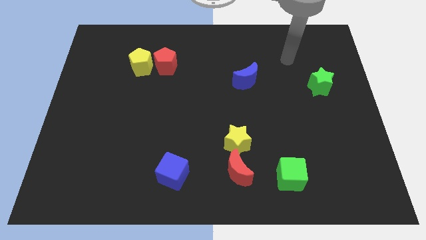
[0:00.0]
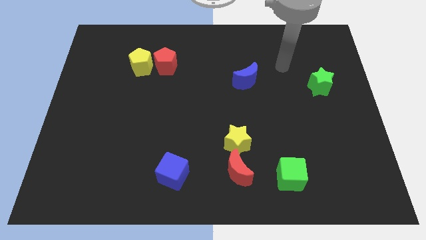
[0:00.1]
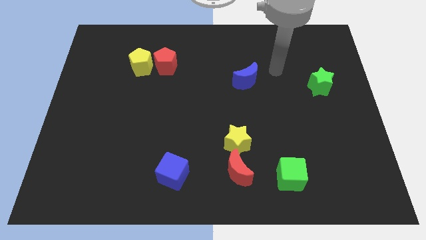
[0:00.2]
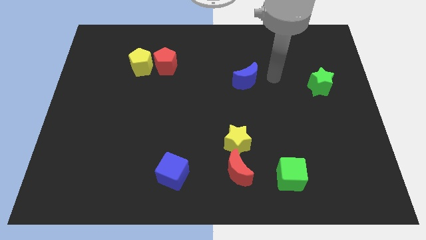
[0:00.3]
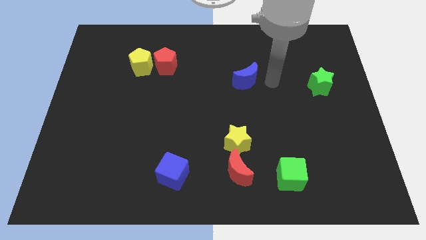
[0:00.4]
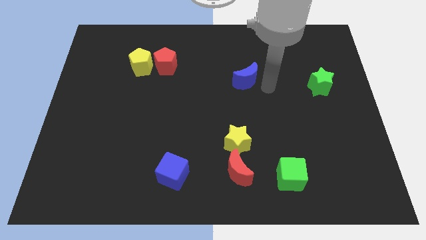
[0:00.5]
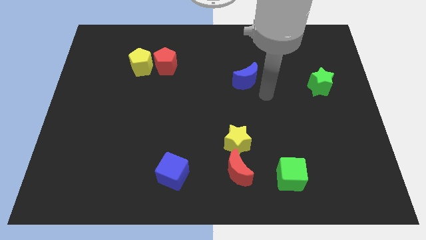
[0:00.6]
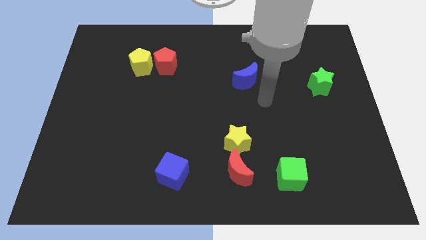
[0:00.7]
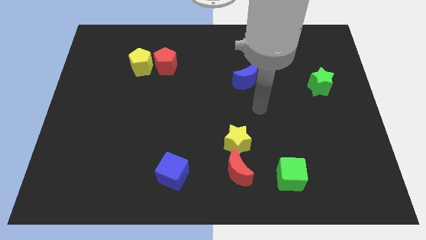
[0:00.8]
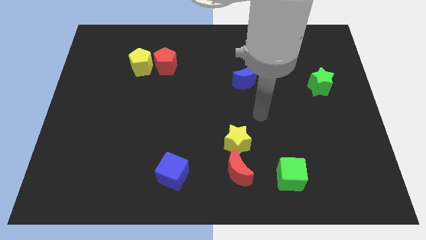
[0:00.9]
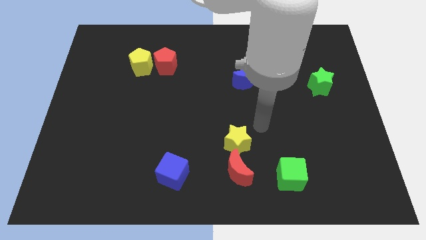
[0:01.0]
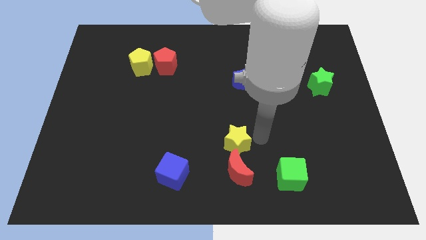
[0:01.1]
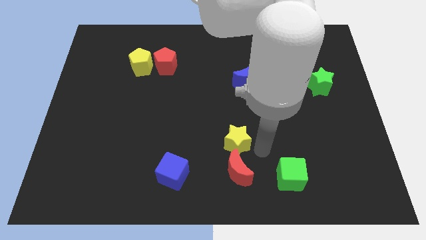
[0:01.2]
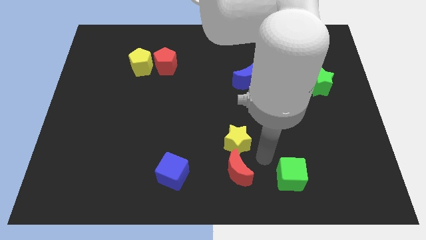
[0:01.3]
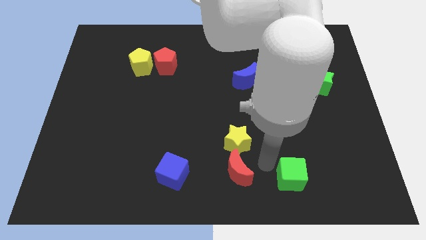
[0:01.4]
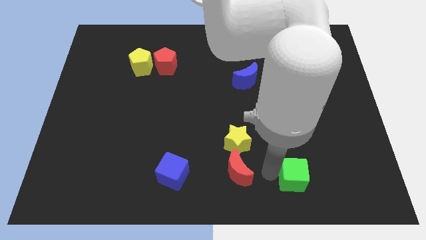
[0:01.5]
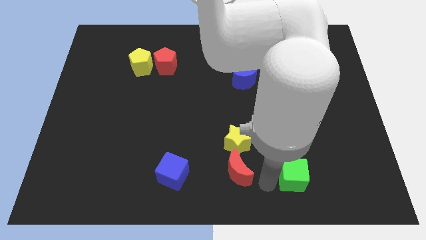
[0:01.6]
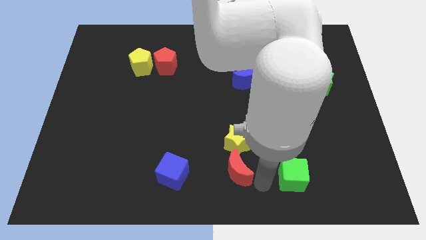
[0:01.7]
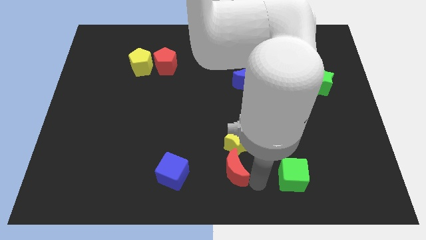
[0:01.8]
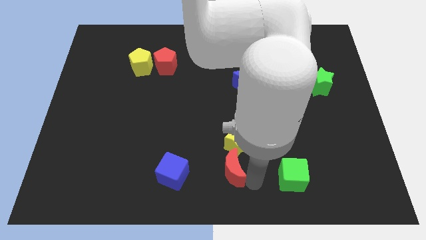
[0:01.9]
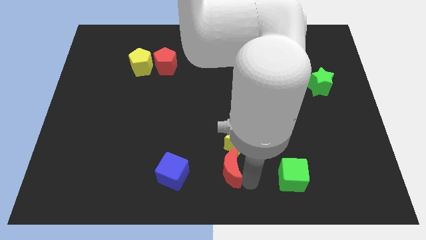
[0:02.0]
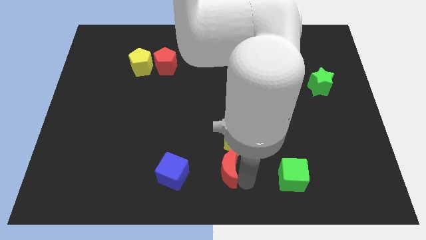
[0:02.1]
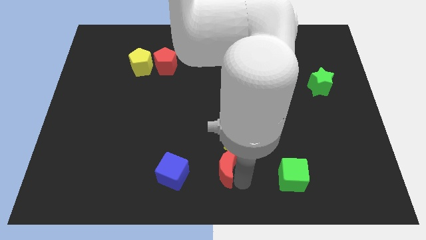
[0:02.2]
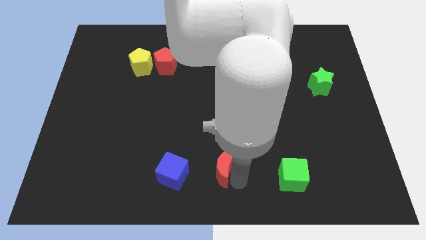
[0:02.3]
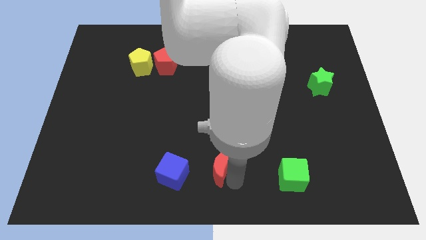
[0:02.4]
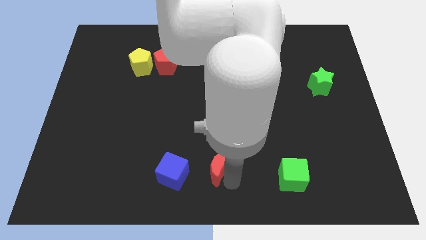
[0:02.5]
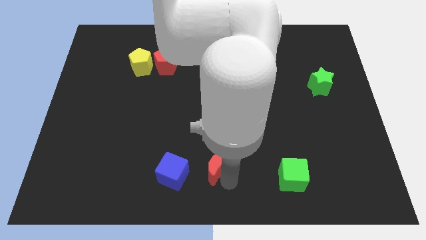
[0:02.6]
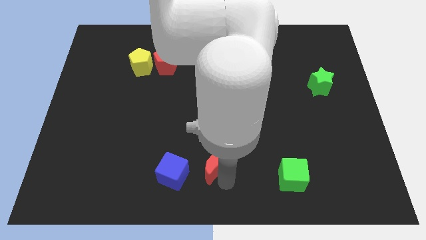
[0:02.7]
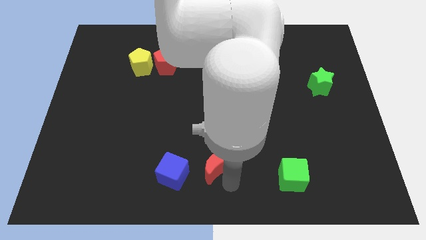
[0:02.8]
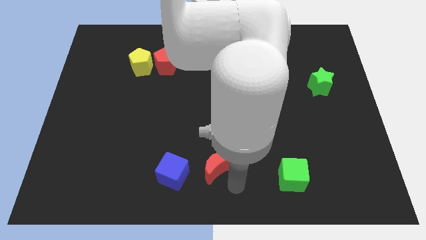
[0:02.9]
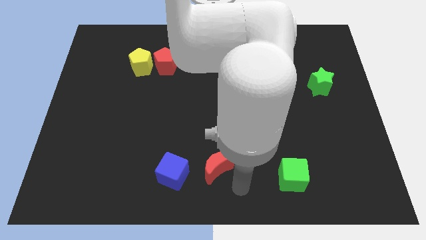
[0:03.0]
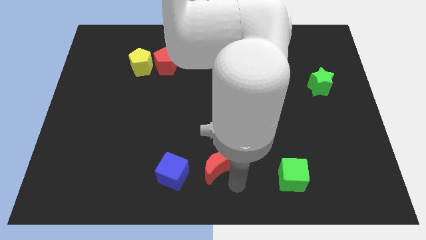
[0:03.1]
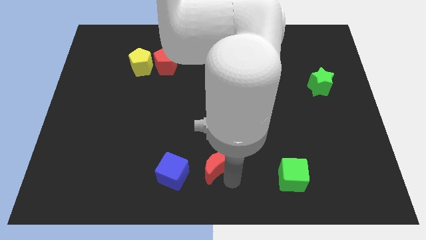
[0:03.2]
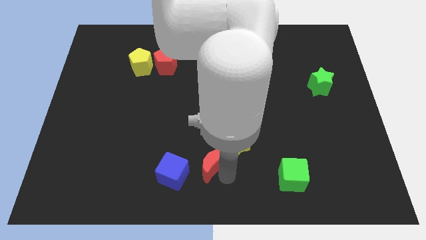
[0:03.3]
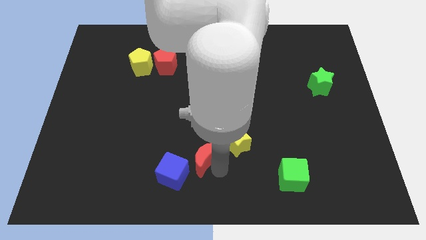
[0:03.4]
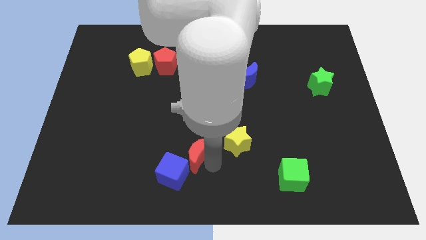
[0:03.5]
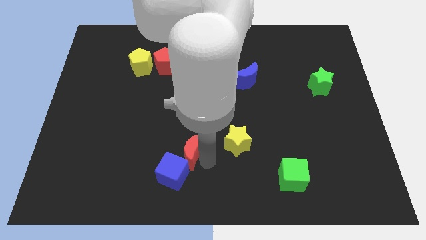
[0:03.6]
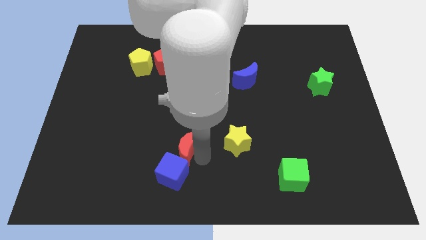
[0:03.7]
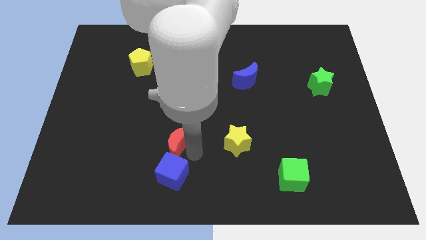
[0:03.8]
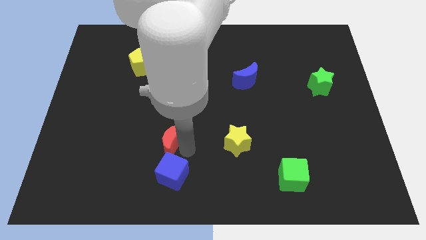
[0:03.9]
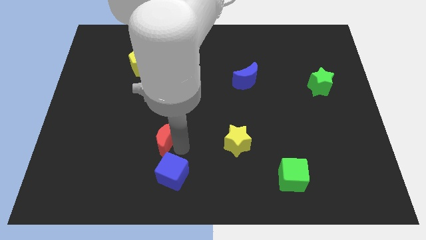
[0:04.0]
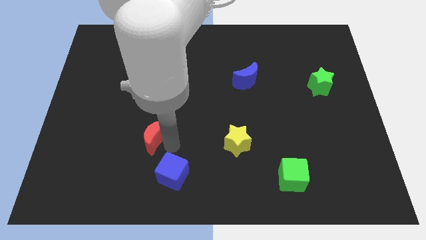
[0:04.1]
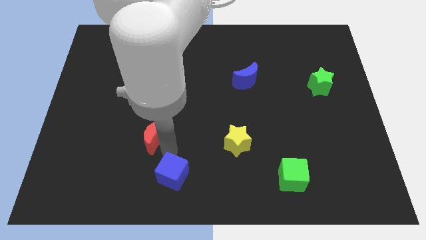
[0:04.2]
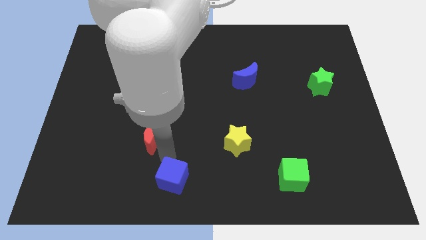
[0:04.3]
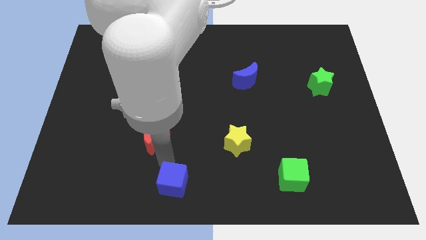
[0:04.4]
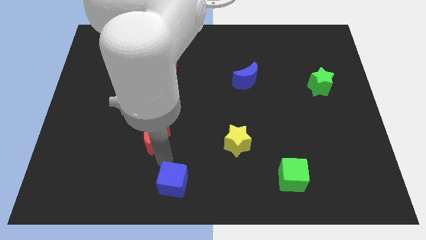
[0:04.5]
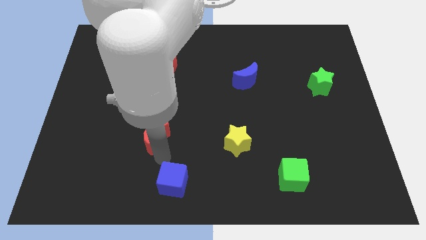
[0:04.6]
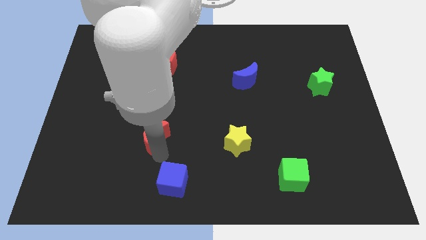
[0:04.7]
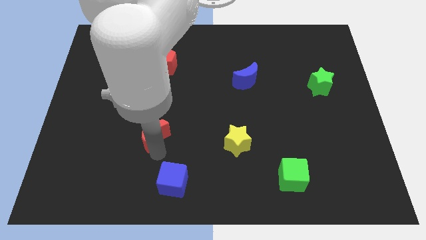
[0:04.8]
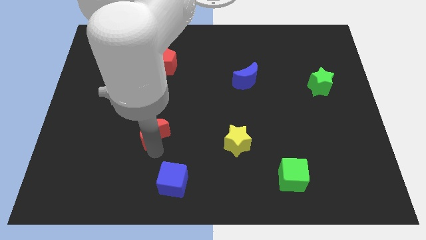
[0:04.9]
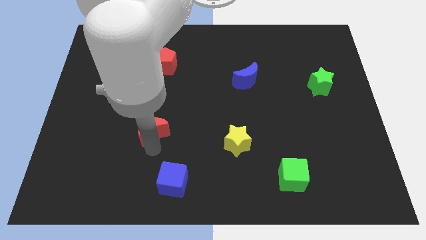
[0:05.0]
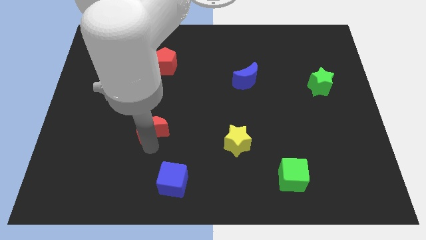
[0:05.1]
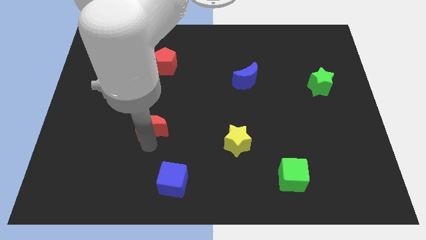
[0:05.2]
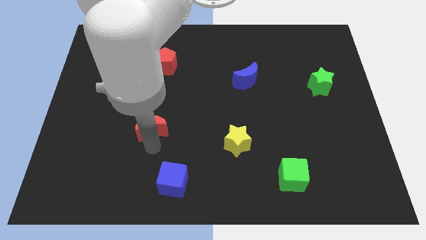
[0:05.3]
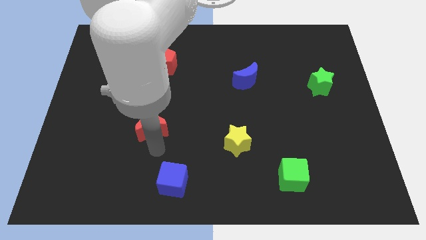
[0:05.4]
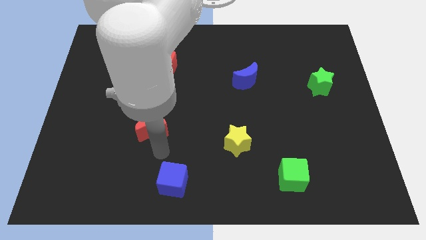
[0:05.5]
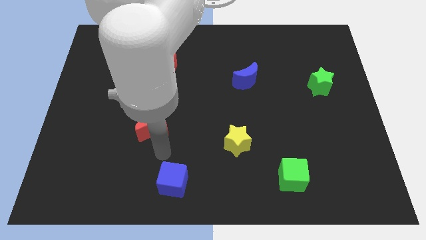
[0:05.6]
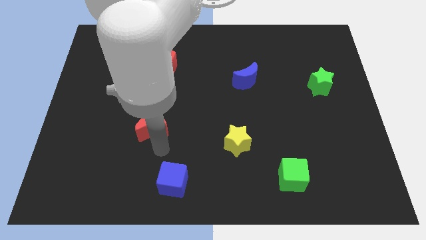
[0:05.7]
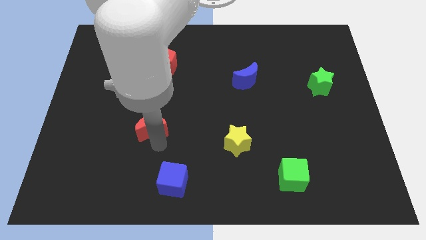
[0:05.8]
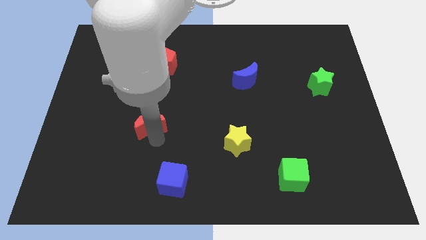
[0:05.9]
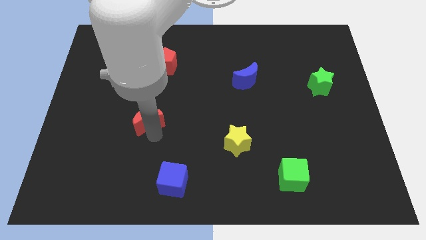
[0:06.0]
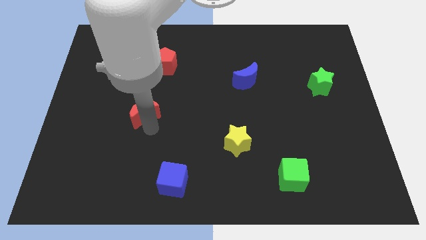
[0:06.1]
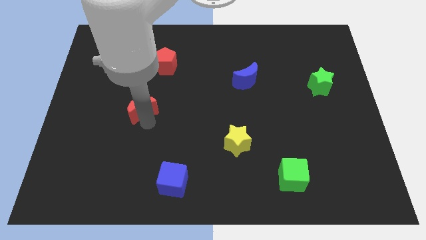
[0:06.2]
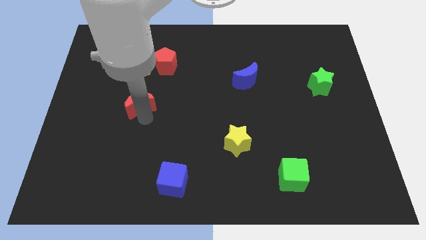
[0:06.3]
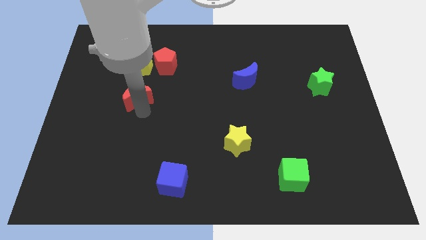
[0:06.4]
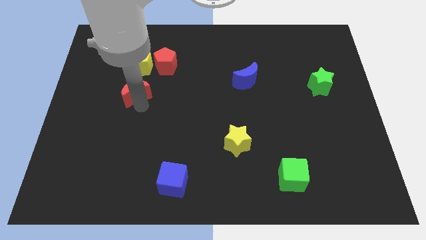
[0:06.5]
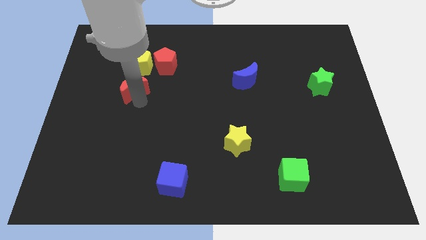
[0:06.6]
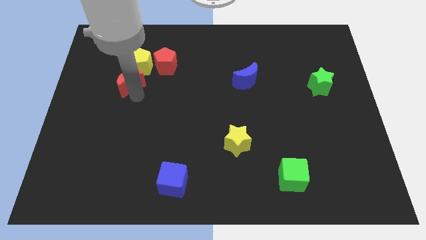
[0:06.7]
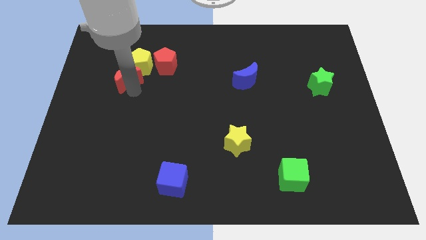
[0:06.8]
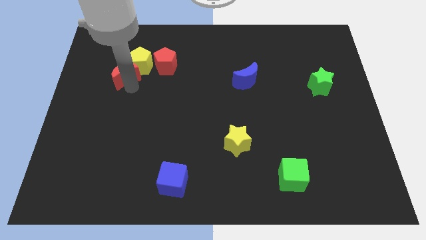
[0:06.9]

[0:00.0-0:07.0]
push the red moon to the left of the red pentagon

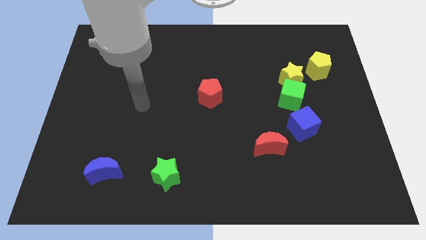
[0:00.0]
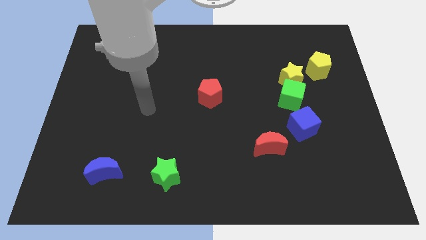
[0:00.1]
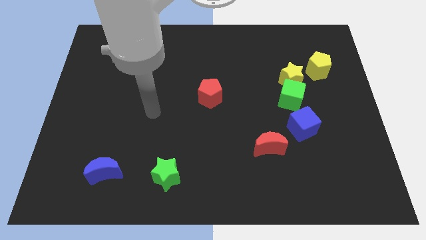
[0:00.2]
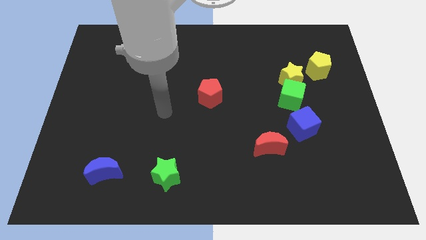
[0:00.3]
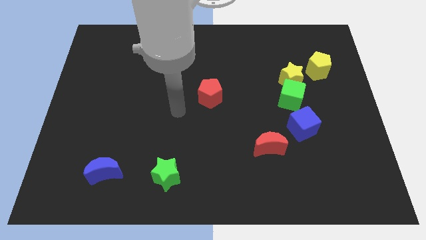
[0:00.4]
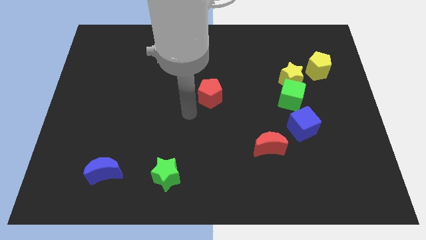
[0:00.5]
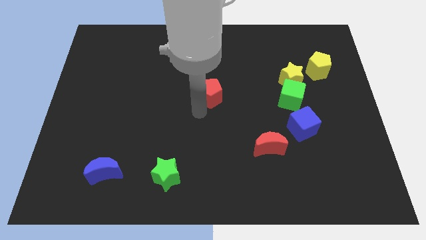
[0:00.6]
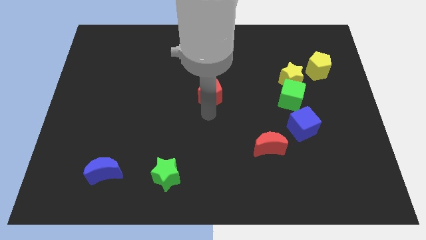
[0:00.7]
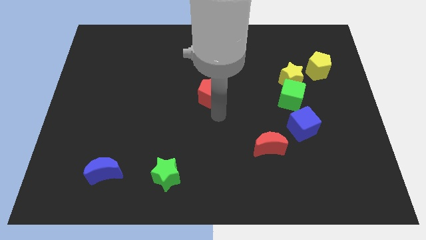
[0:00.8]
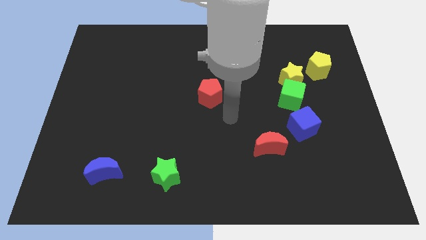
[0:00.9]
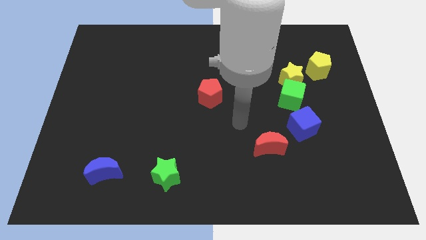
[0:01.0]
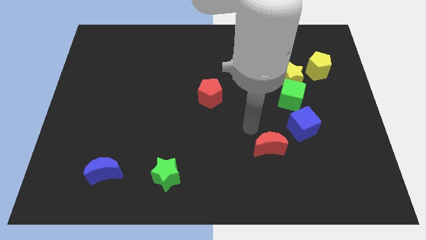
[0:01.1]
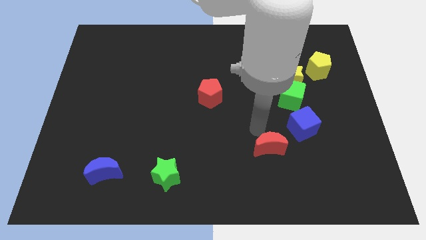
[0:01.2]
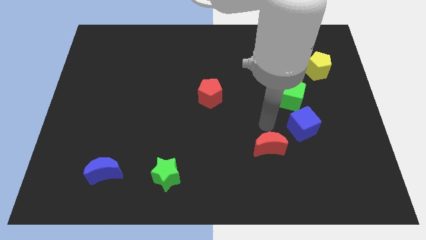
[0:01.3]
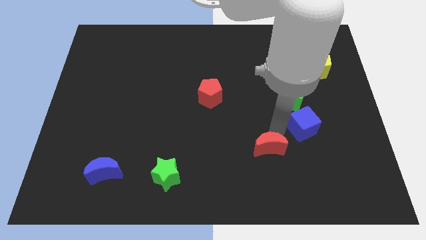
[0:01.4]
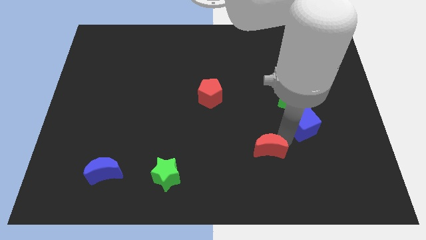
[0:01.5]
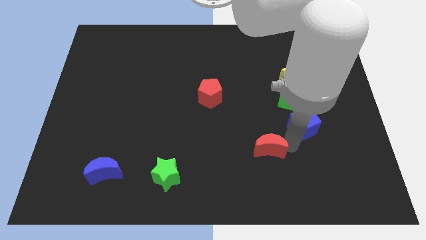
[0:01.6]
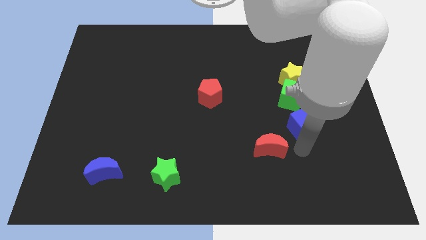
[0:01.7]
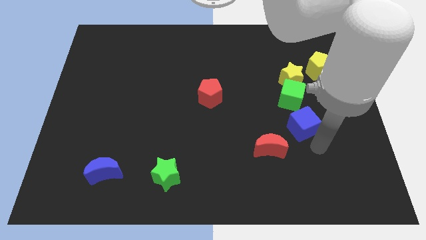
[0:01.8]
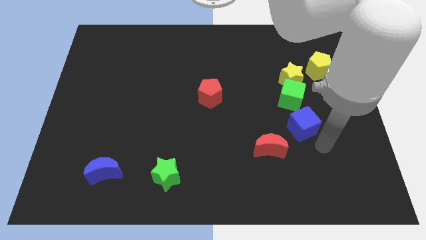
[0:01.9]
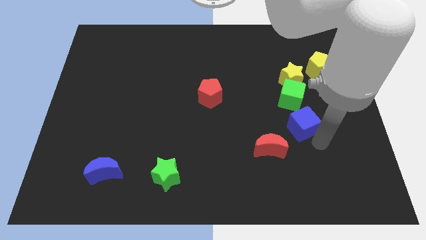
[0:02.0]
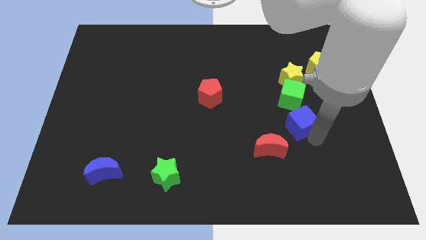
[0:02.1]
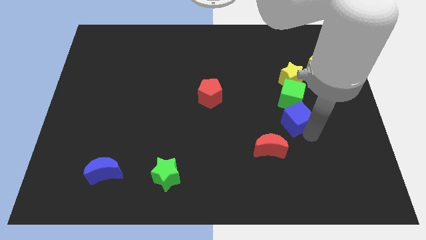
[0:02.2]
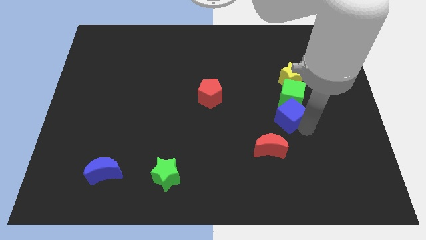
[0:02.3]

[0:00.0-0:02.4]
slide the blue cube diagonally down and to the left of the green cube
